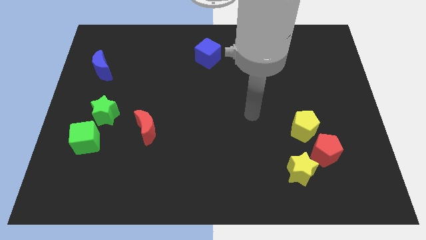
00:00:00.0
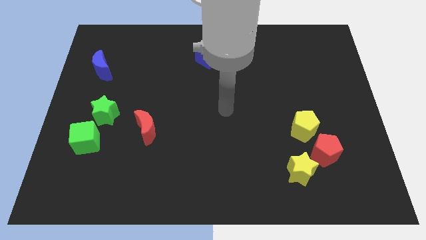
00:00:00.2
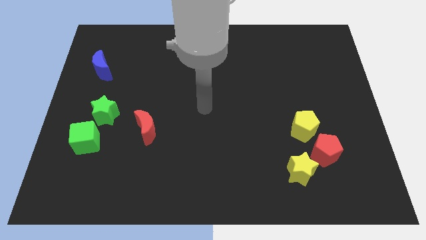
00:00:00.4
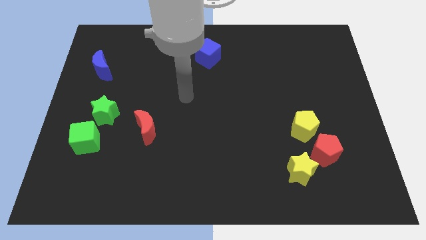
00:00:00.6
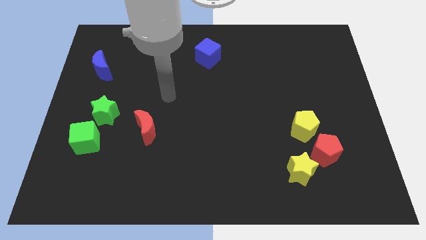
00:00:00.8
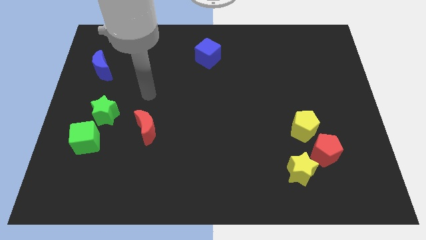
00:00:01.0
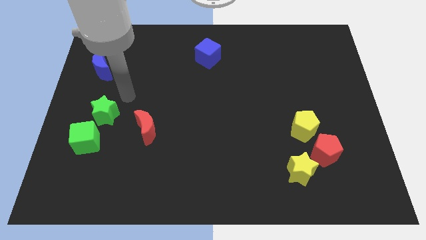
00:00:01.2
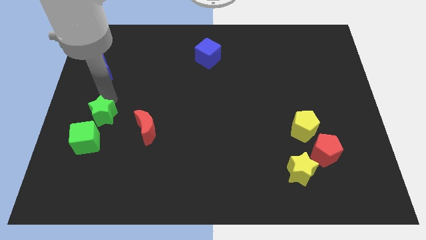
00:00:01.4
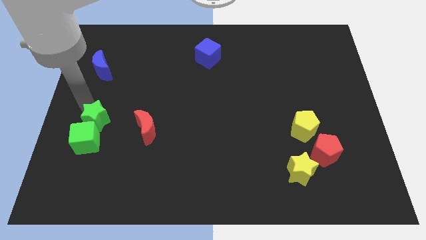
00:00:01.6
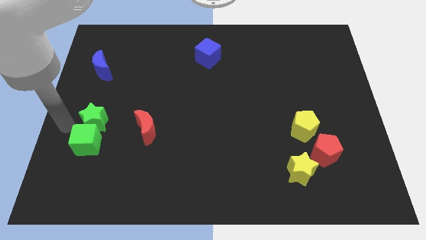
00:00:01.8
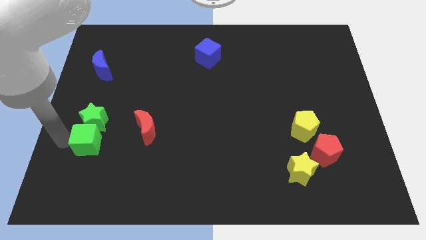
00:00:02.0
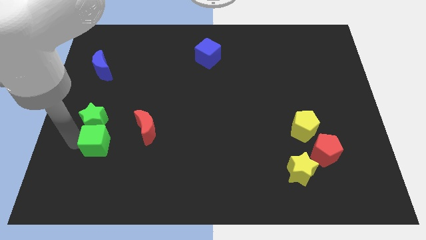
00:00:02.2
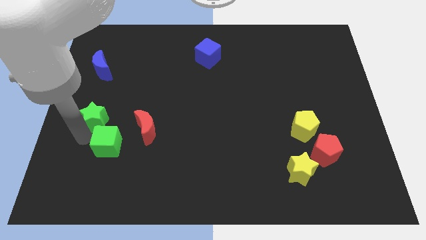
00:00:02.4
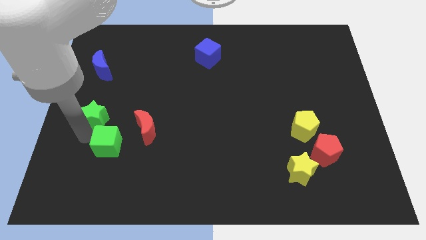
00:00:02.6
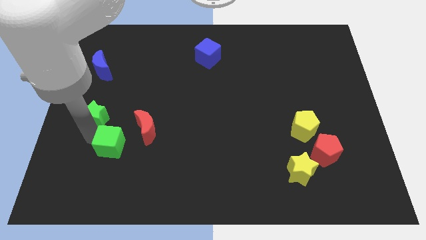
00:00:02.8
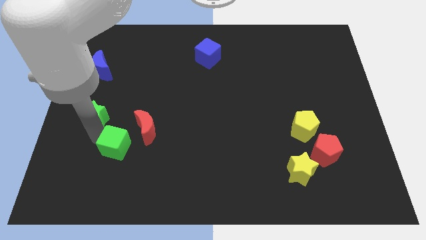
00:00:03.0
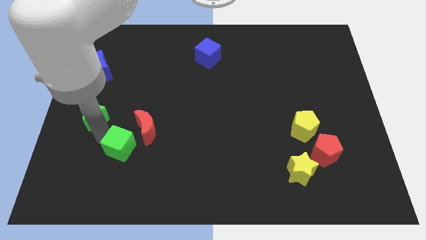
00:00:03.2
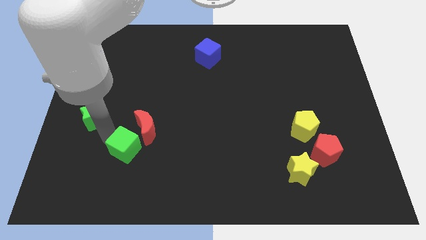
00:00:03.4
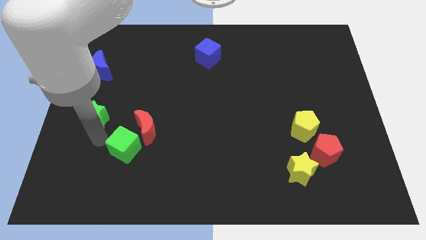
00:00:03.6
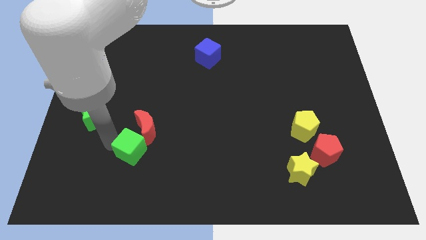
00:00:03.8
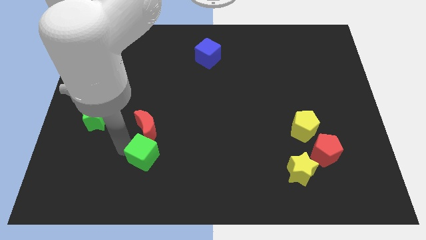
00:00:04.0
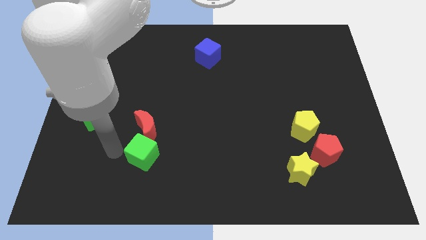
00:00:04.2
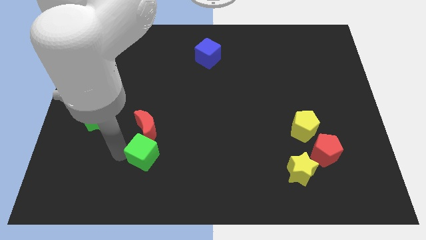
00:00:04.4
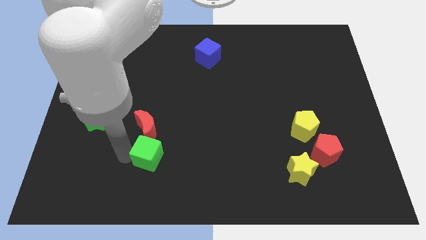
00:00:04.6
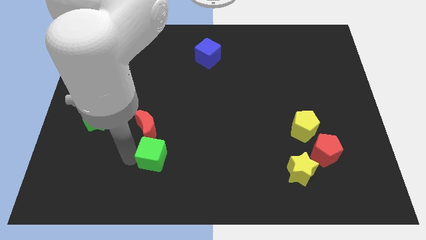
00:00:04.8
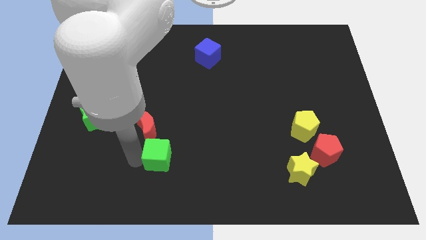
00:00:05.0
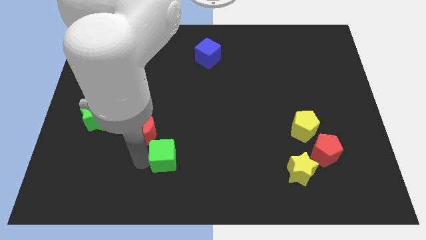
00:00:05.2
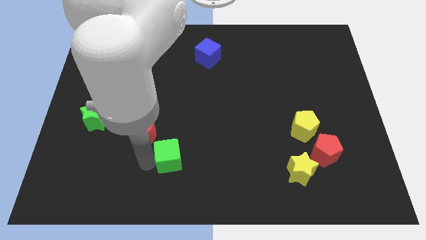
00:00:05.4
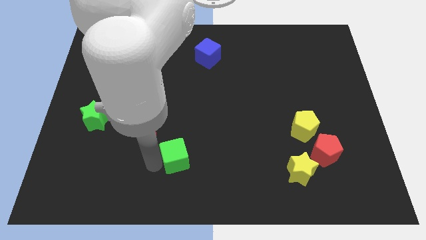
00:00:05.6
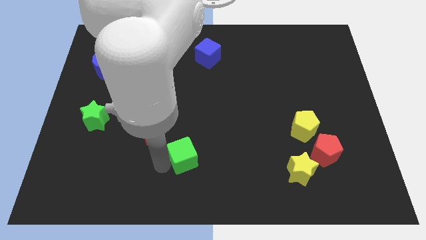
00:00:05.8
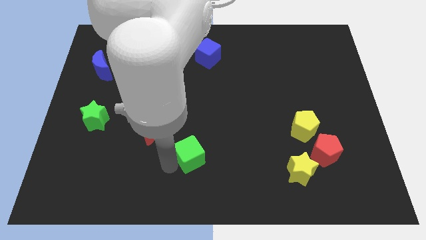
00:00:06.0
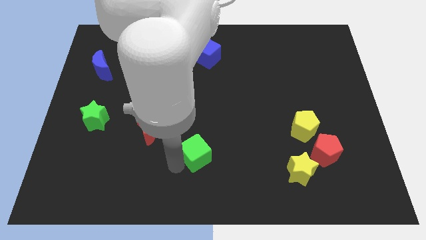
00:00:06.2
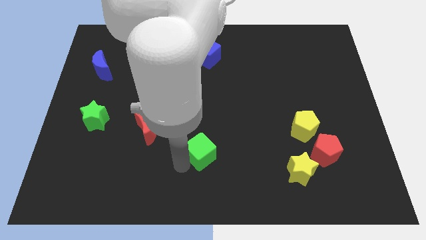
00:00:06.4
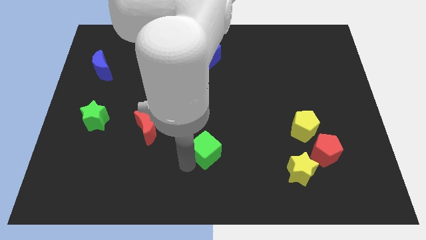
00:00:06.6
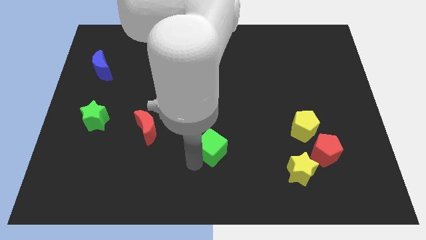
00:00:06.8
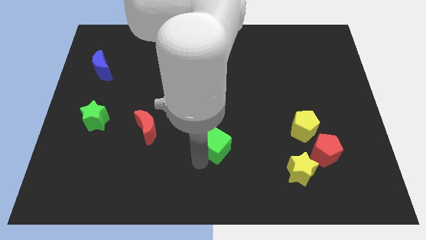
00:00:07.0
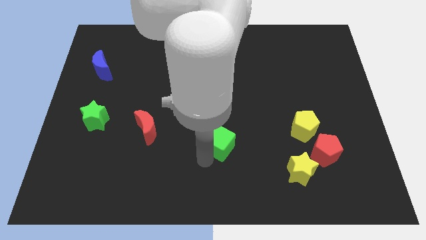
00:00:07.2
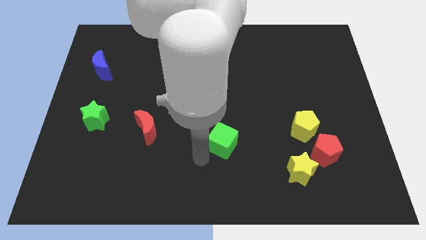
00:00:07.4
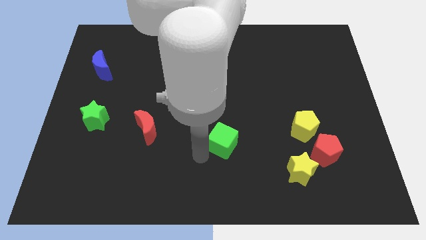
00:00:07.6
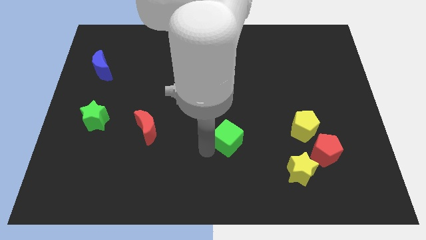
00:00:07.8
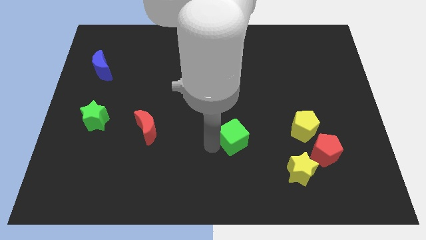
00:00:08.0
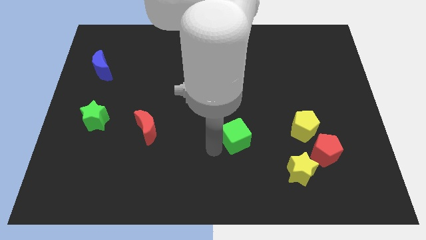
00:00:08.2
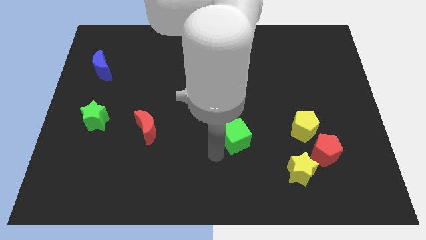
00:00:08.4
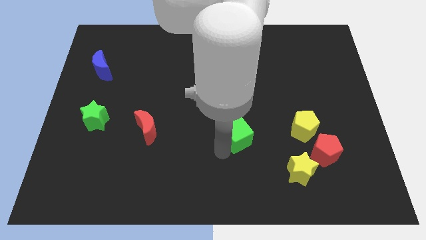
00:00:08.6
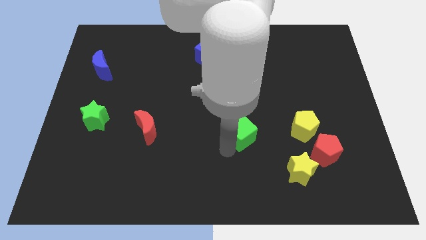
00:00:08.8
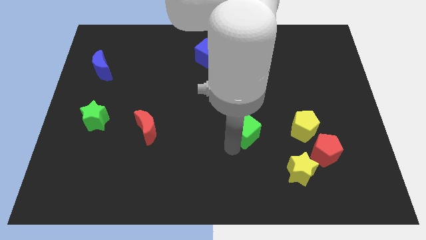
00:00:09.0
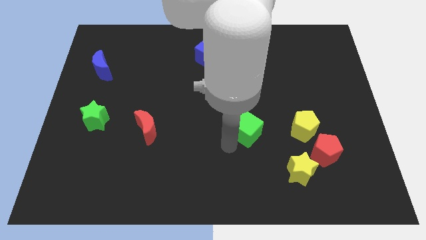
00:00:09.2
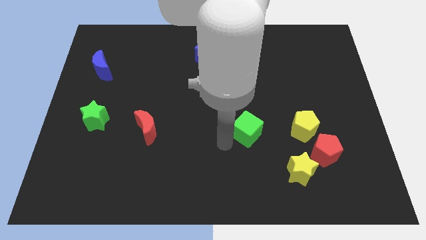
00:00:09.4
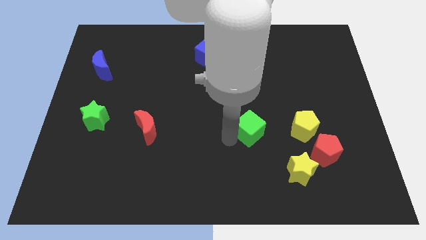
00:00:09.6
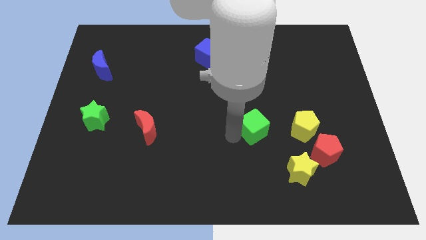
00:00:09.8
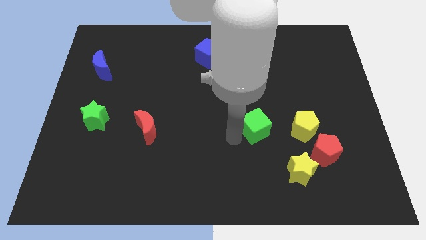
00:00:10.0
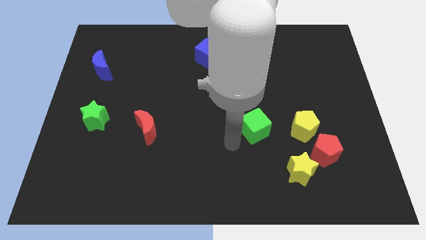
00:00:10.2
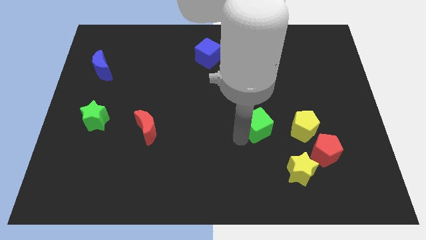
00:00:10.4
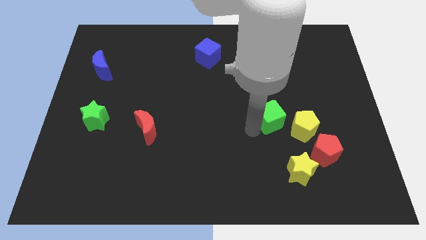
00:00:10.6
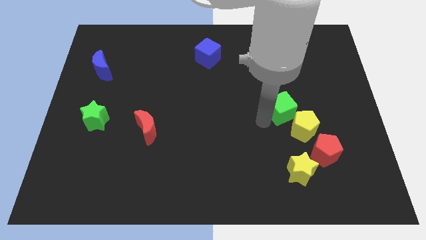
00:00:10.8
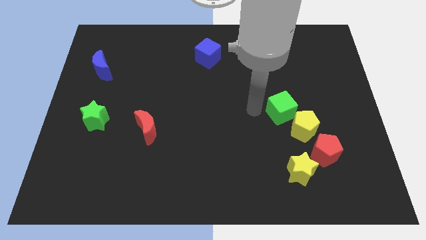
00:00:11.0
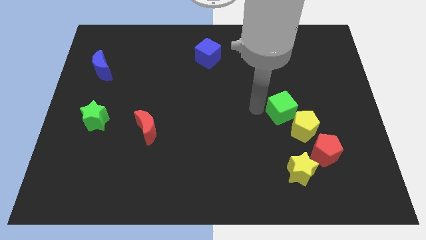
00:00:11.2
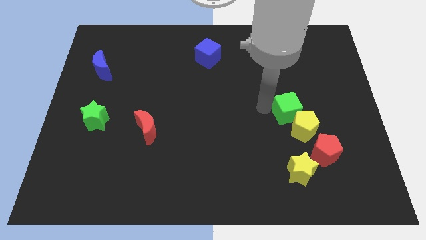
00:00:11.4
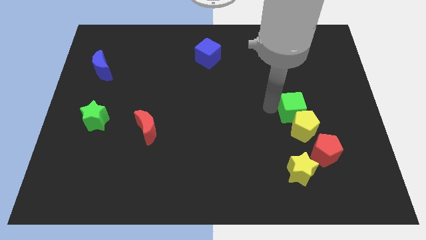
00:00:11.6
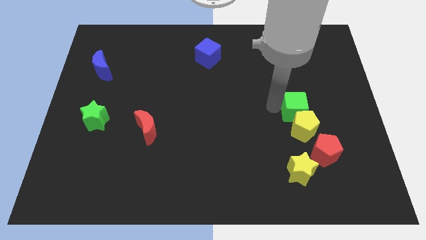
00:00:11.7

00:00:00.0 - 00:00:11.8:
move the green cube to the top side of the red pentagon

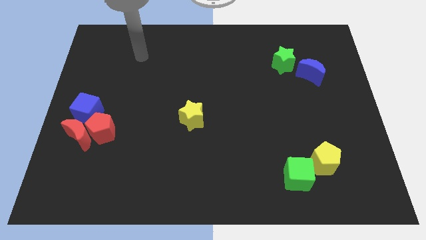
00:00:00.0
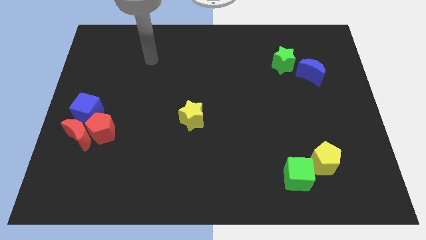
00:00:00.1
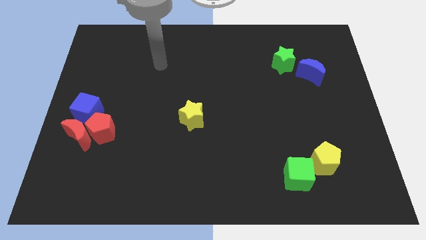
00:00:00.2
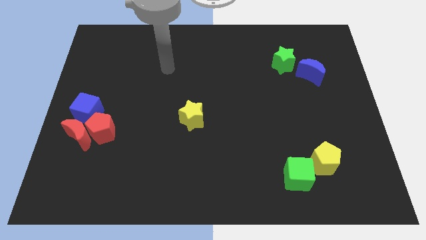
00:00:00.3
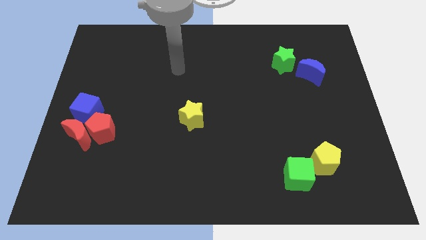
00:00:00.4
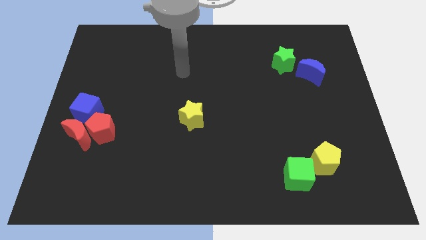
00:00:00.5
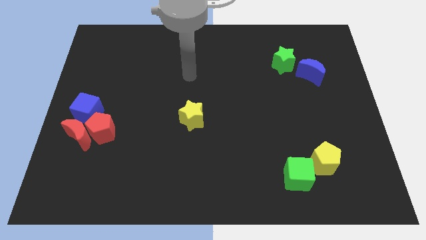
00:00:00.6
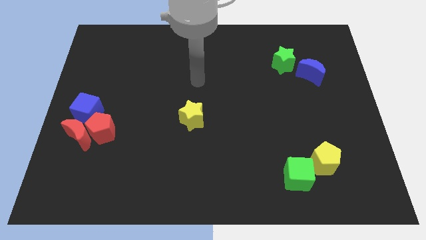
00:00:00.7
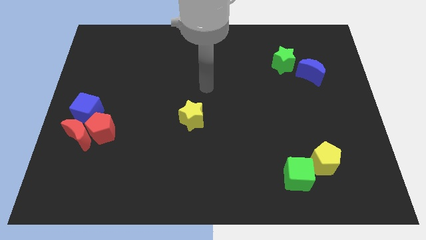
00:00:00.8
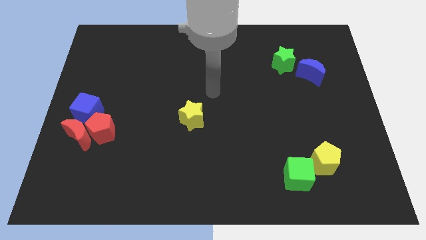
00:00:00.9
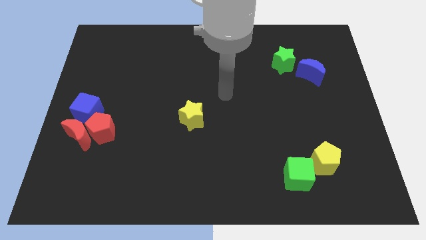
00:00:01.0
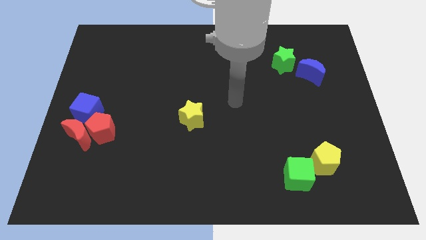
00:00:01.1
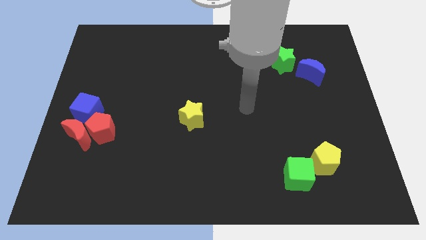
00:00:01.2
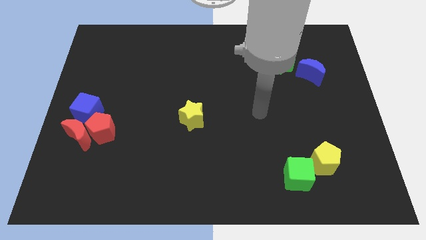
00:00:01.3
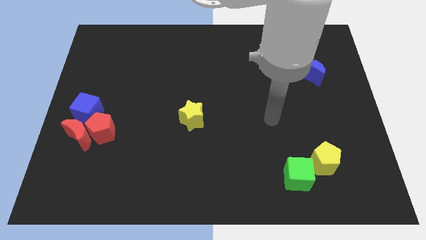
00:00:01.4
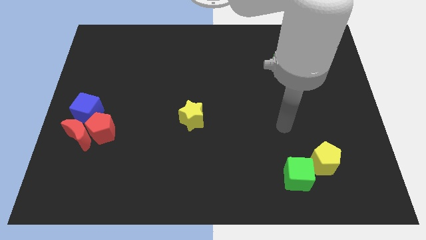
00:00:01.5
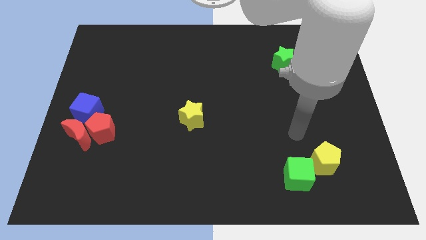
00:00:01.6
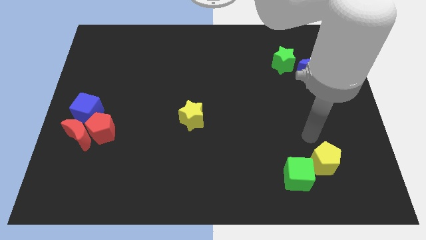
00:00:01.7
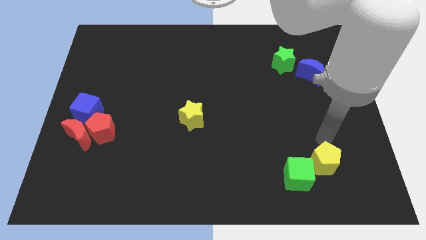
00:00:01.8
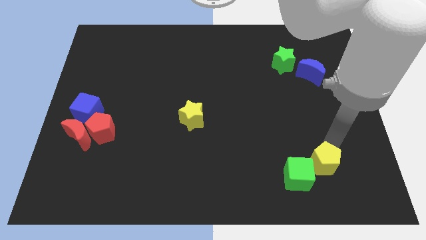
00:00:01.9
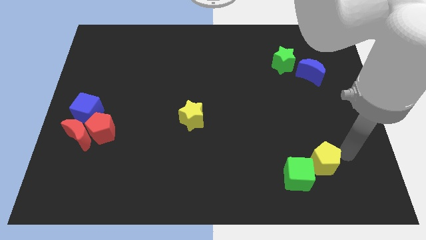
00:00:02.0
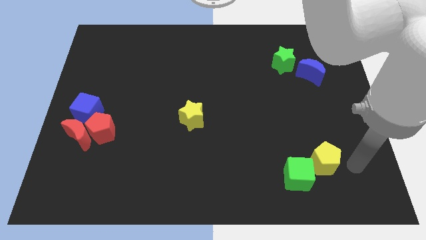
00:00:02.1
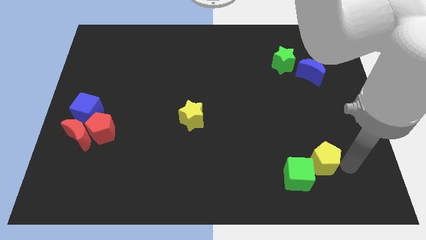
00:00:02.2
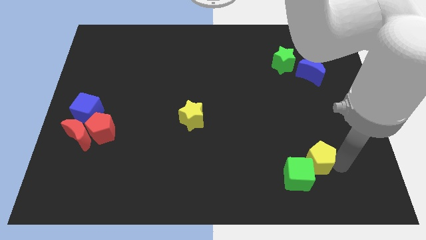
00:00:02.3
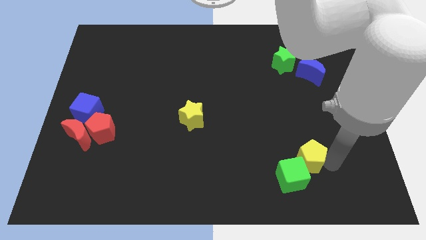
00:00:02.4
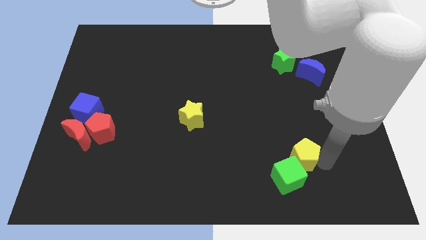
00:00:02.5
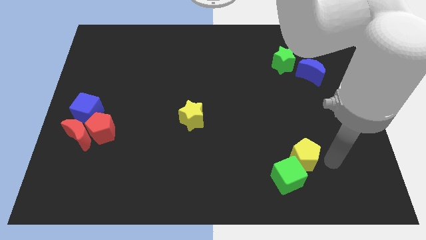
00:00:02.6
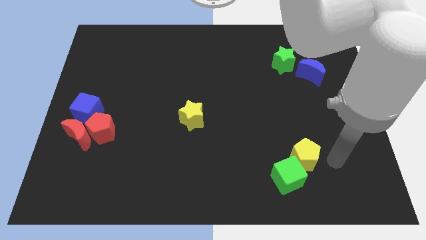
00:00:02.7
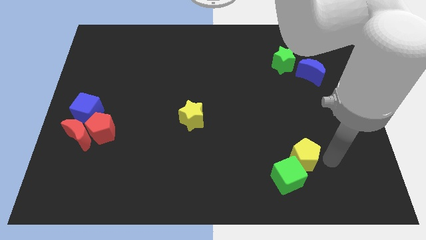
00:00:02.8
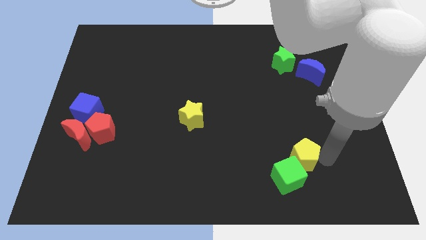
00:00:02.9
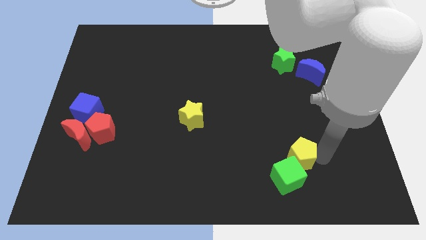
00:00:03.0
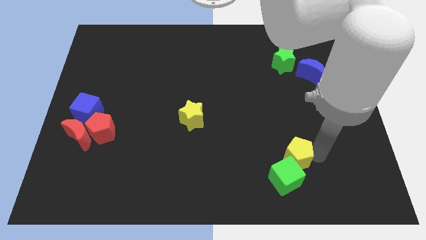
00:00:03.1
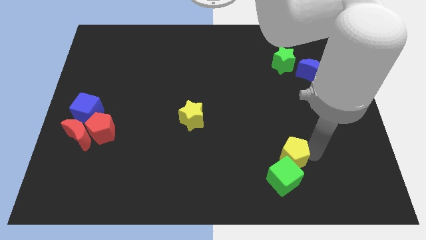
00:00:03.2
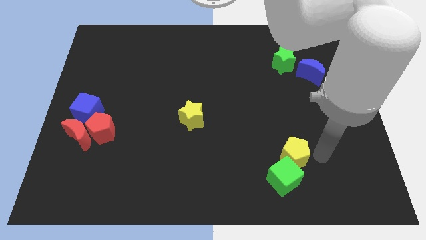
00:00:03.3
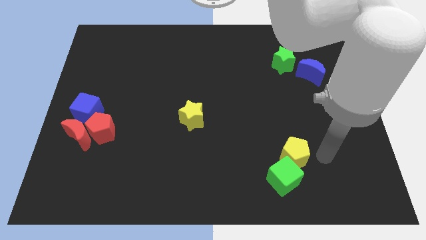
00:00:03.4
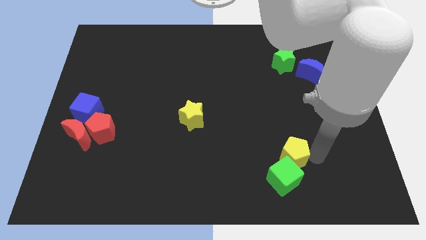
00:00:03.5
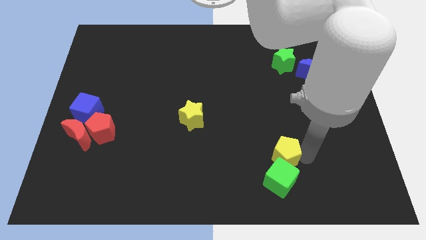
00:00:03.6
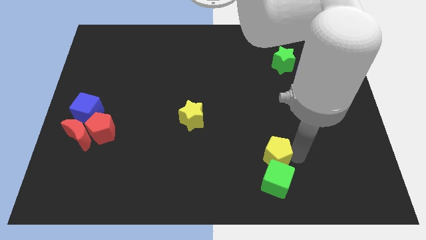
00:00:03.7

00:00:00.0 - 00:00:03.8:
push the yellow pentagon diagonally up and to the left of the green cube
